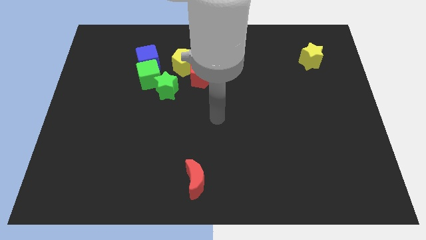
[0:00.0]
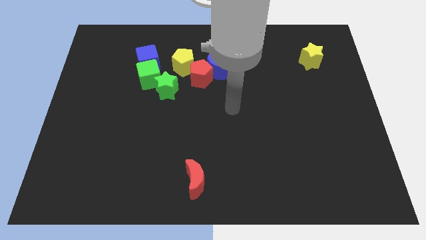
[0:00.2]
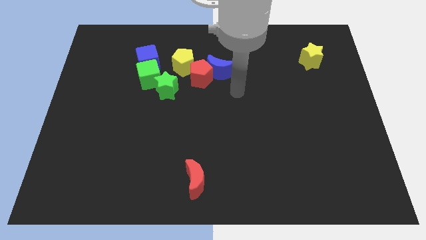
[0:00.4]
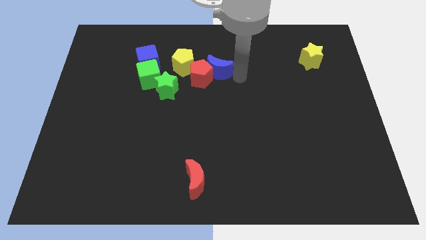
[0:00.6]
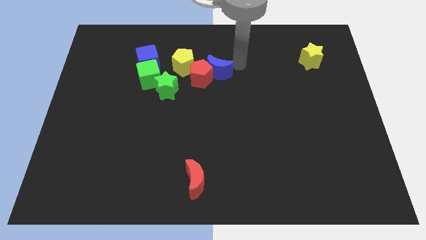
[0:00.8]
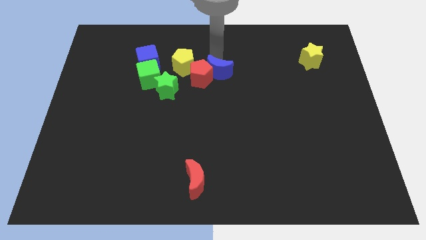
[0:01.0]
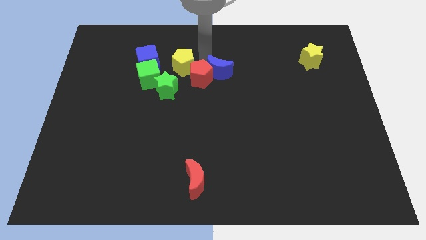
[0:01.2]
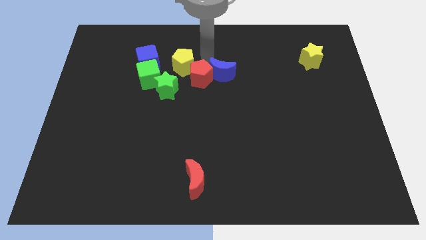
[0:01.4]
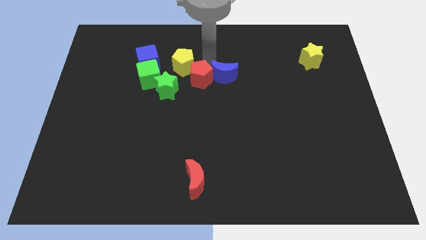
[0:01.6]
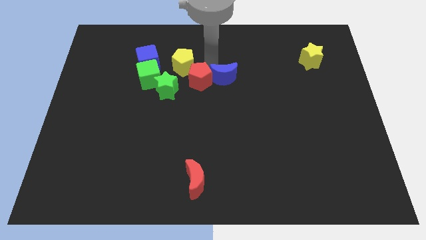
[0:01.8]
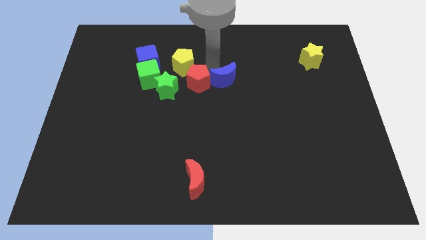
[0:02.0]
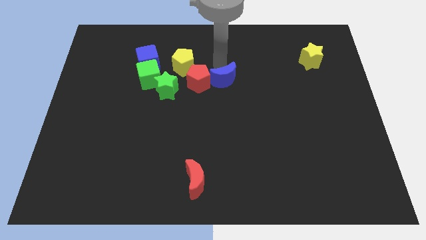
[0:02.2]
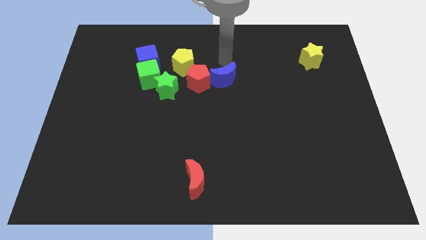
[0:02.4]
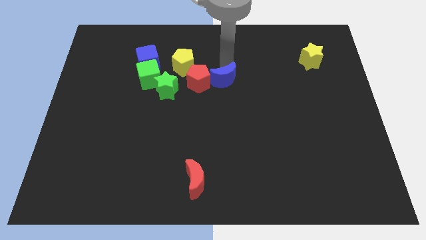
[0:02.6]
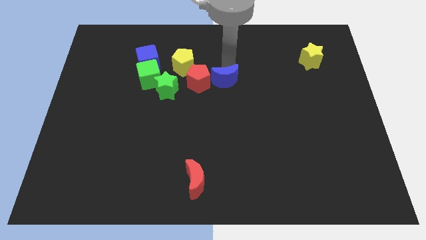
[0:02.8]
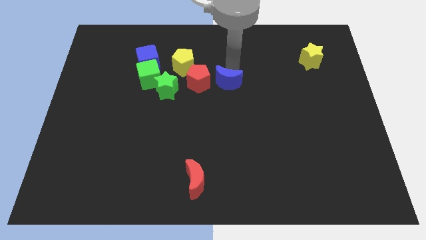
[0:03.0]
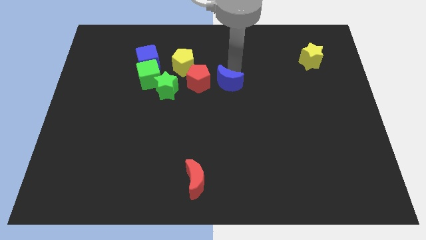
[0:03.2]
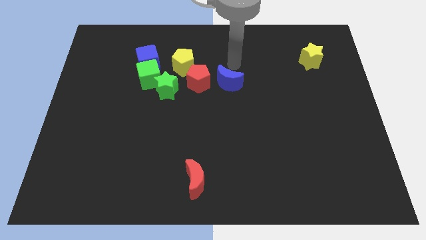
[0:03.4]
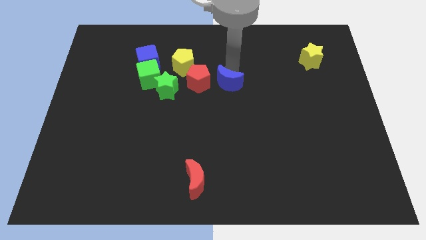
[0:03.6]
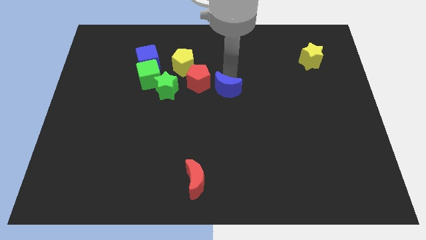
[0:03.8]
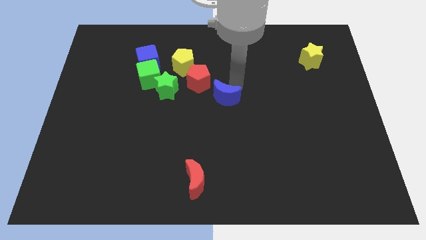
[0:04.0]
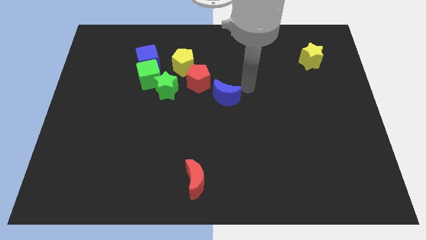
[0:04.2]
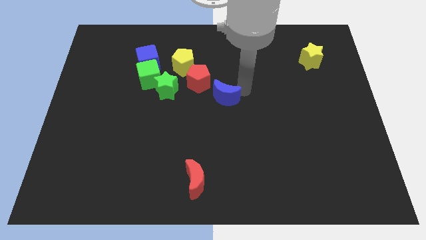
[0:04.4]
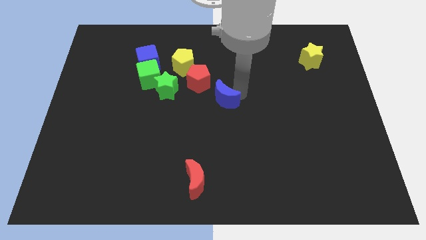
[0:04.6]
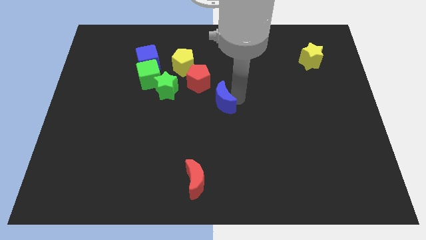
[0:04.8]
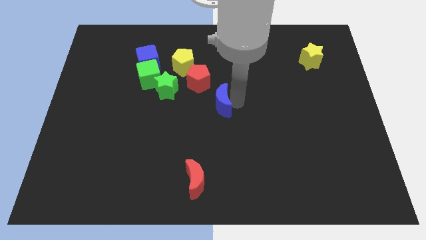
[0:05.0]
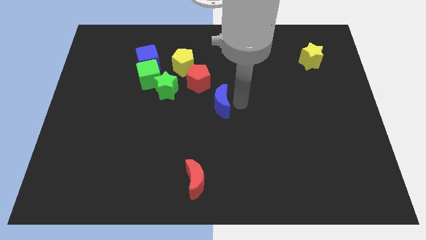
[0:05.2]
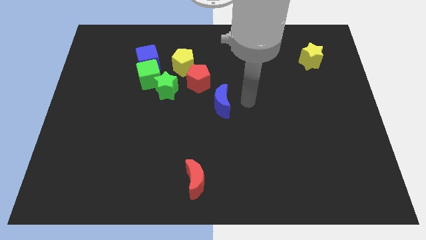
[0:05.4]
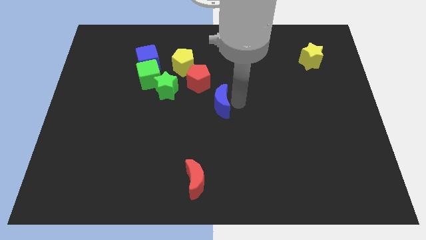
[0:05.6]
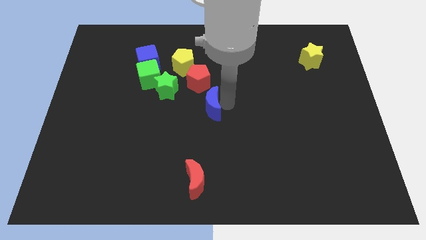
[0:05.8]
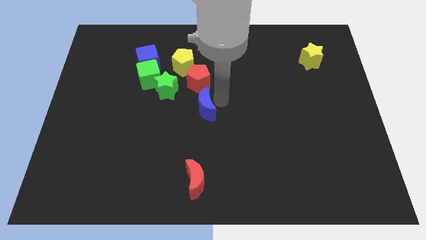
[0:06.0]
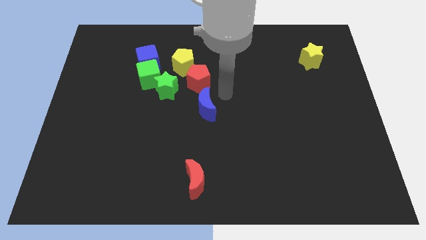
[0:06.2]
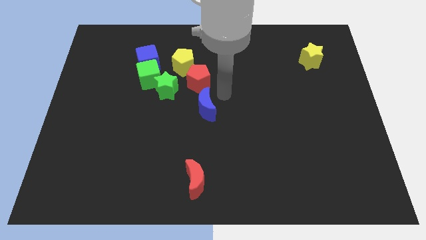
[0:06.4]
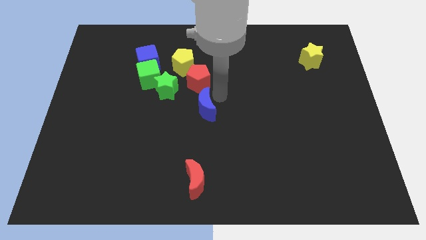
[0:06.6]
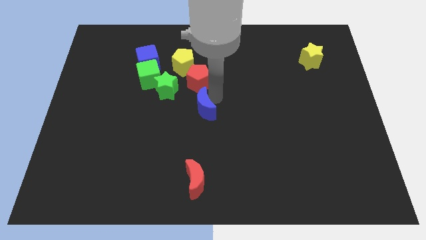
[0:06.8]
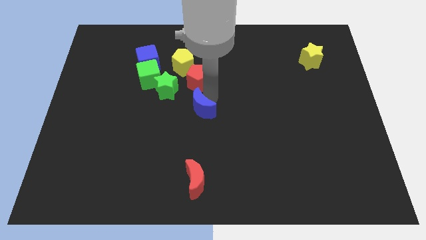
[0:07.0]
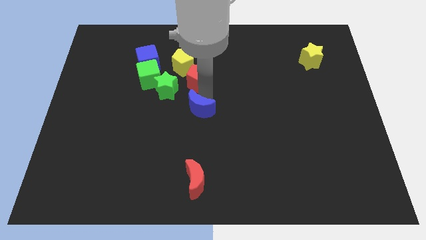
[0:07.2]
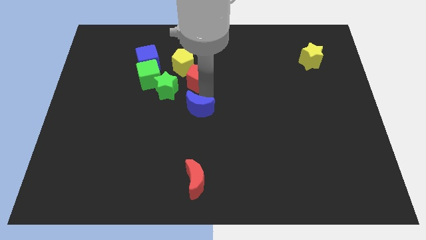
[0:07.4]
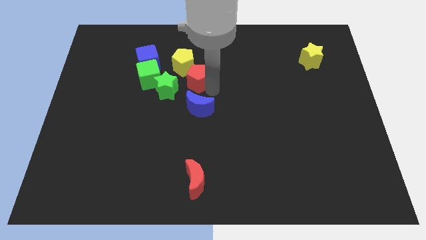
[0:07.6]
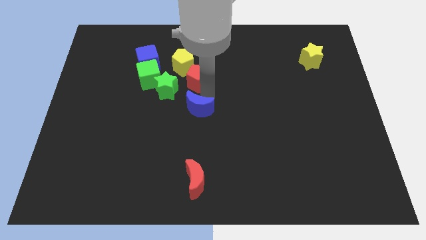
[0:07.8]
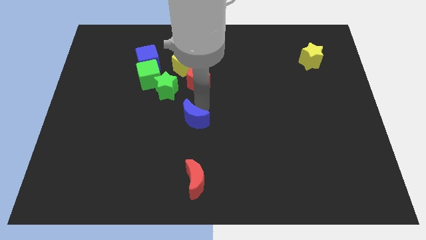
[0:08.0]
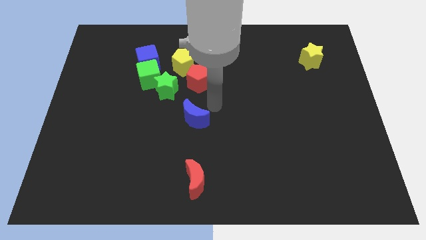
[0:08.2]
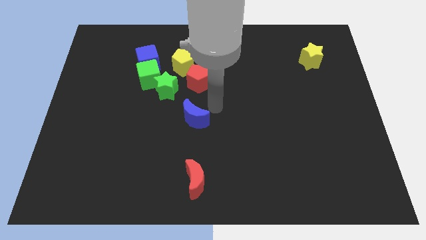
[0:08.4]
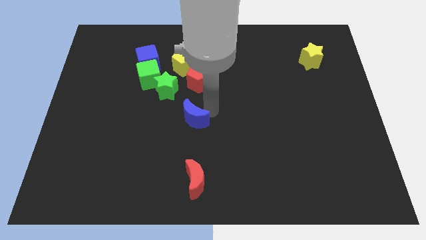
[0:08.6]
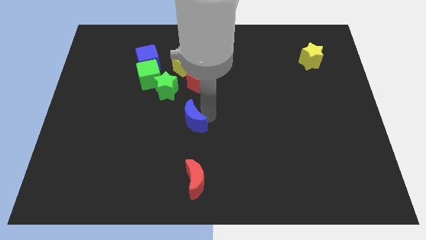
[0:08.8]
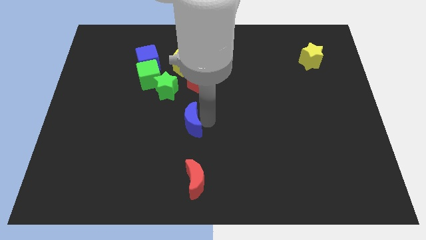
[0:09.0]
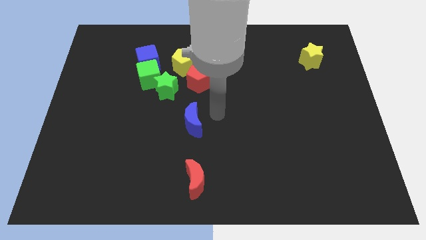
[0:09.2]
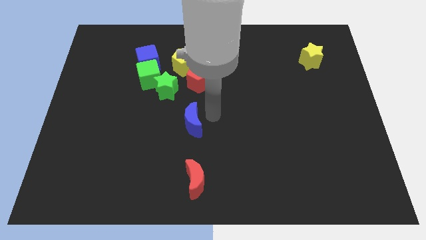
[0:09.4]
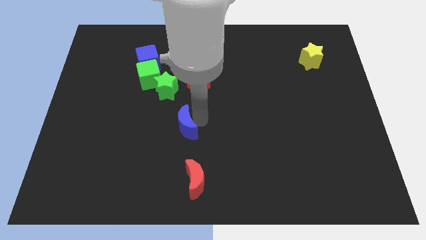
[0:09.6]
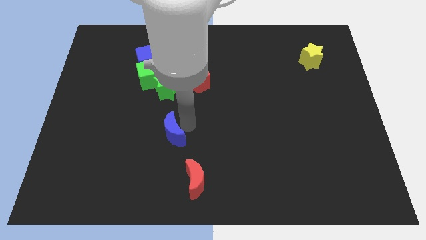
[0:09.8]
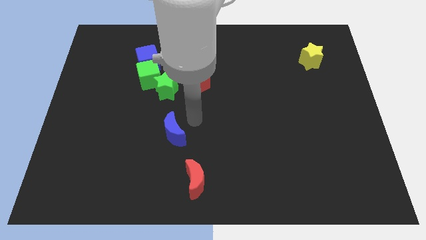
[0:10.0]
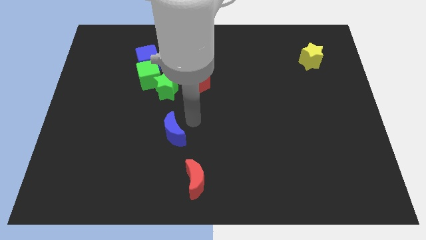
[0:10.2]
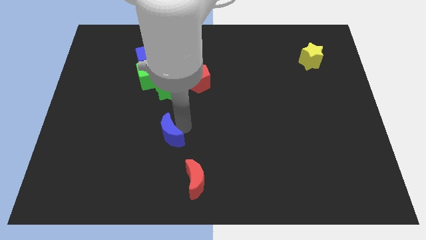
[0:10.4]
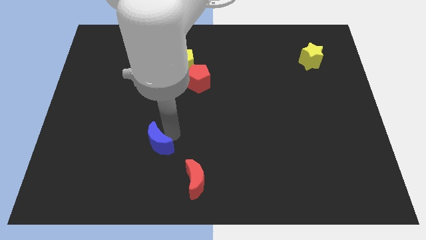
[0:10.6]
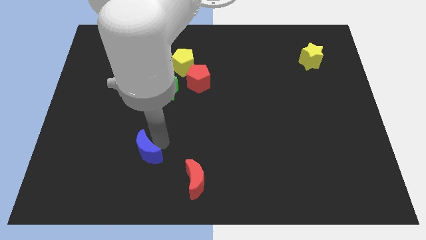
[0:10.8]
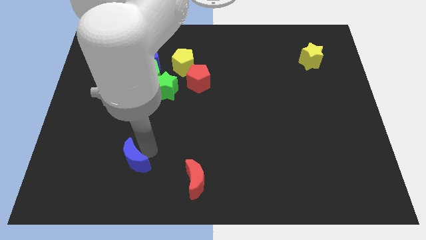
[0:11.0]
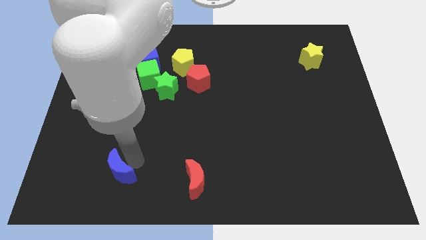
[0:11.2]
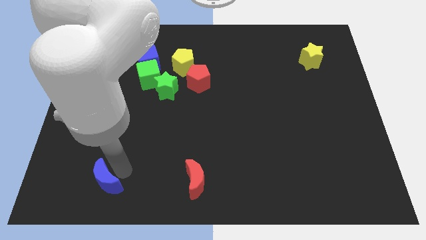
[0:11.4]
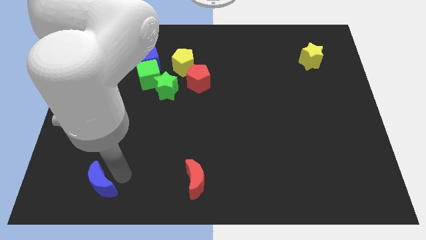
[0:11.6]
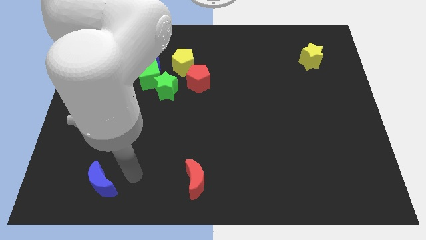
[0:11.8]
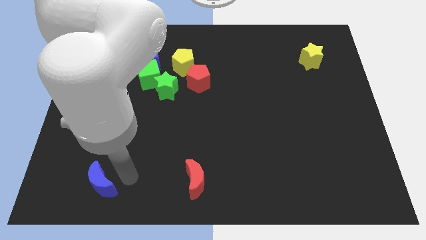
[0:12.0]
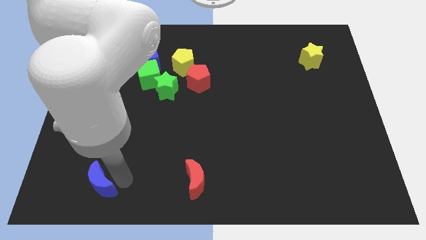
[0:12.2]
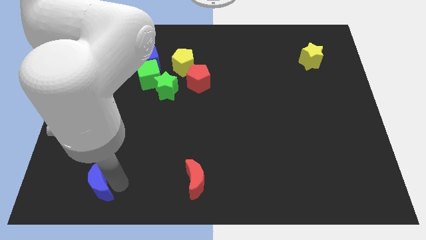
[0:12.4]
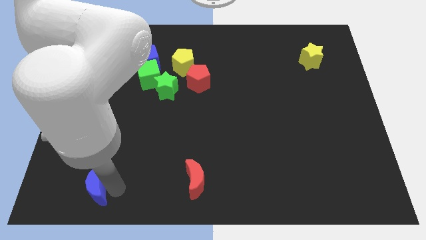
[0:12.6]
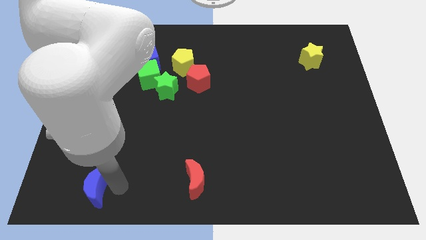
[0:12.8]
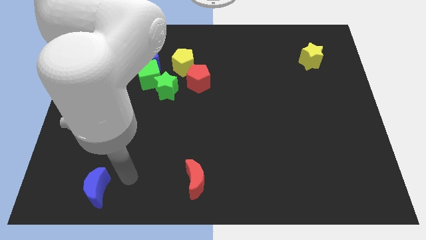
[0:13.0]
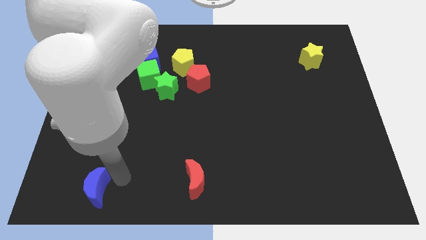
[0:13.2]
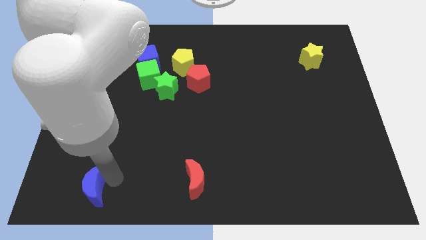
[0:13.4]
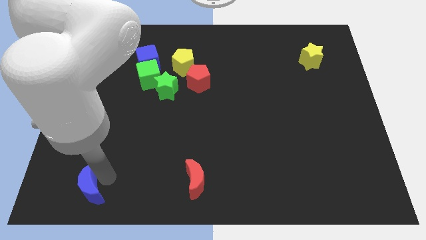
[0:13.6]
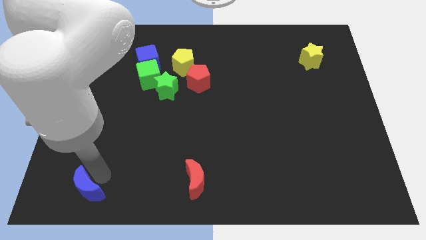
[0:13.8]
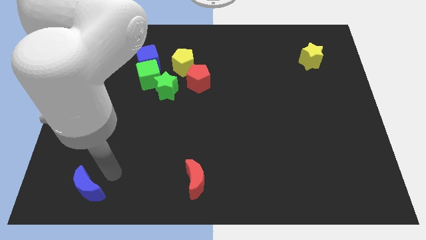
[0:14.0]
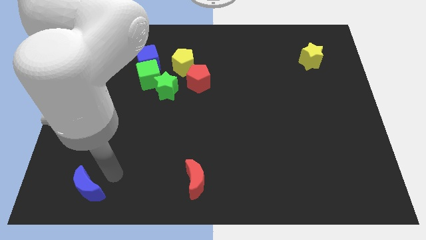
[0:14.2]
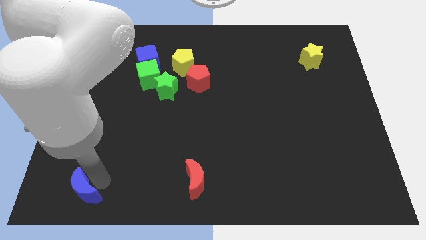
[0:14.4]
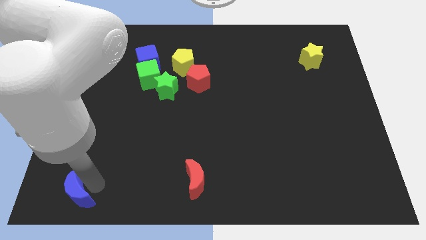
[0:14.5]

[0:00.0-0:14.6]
move the blue moon to the bottom left of the board

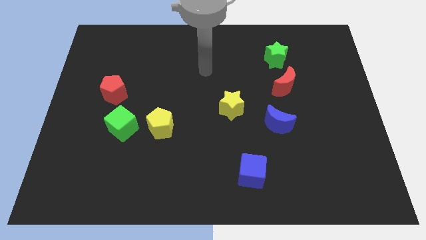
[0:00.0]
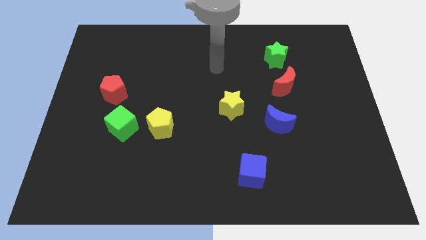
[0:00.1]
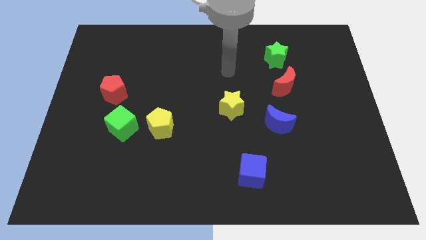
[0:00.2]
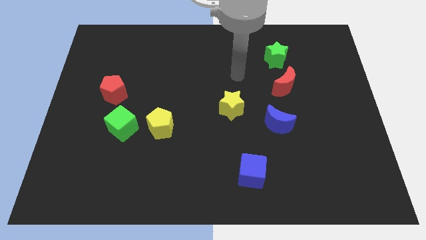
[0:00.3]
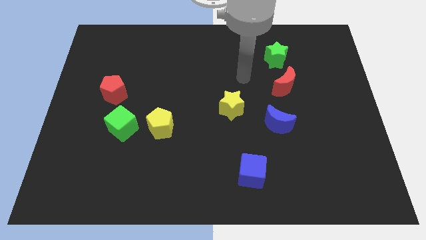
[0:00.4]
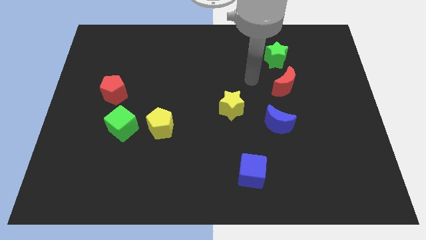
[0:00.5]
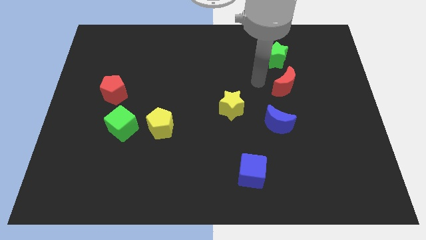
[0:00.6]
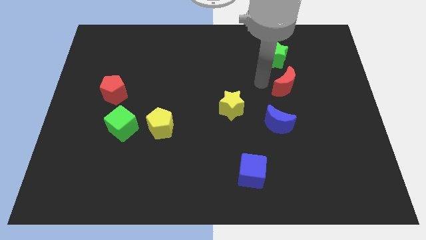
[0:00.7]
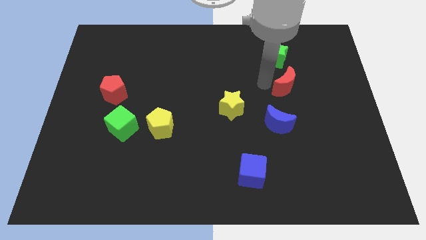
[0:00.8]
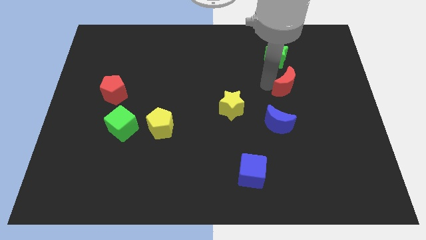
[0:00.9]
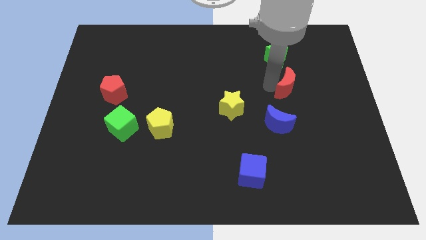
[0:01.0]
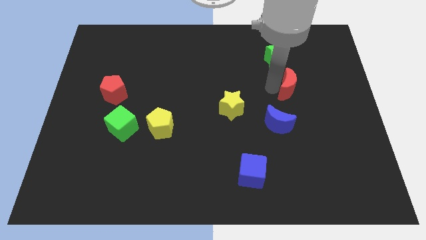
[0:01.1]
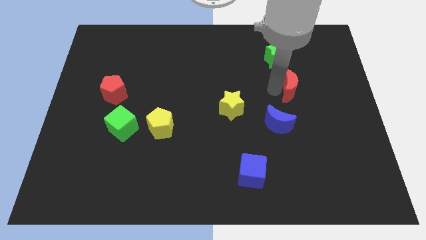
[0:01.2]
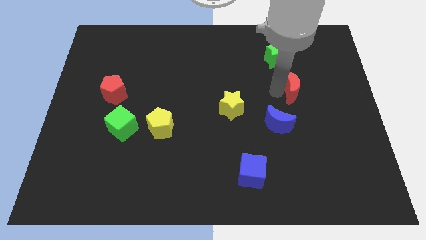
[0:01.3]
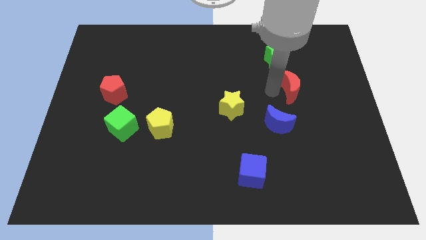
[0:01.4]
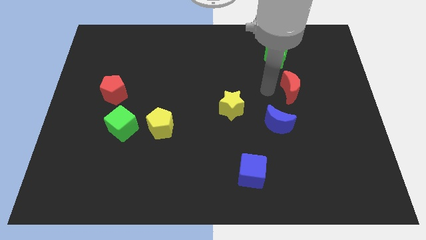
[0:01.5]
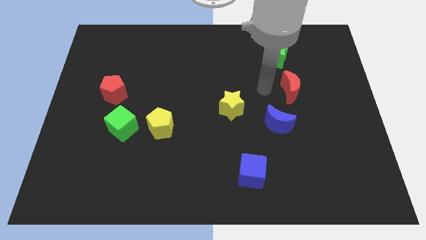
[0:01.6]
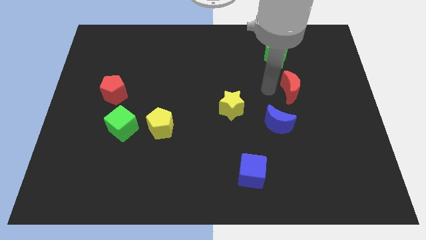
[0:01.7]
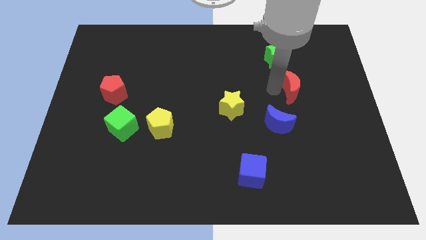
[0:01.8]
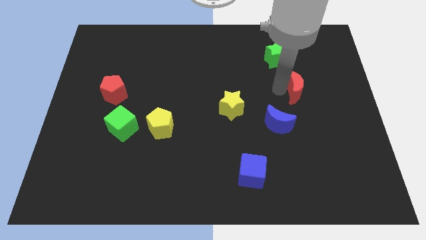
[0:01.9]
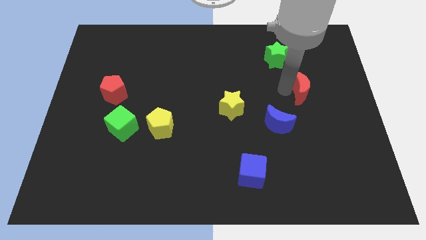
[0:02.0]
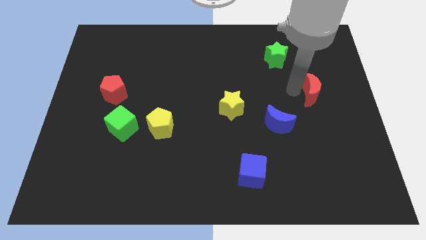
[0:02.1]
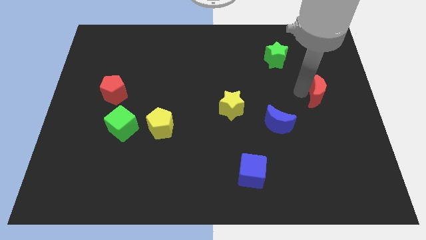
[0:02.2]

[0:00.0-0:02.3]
put the red moon to the right side of the board
